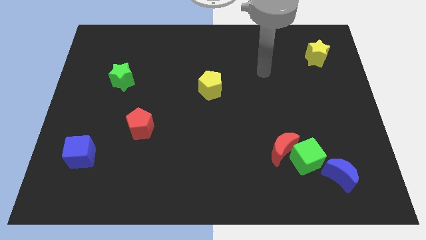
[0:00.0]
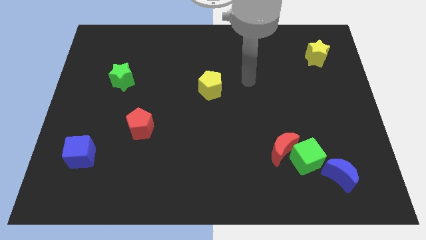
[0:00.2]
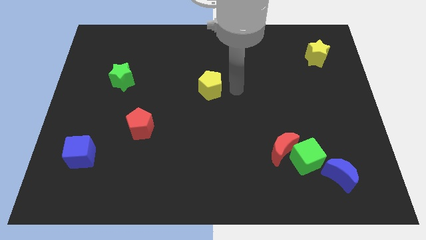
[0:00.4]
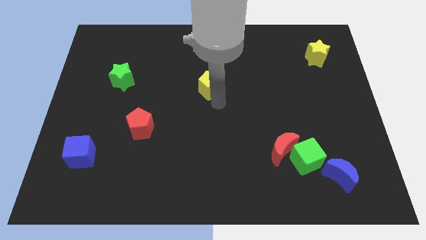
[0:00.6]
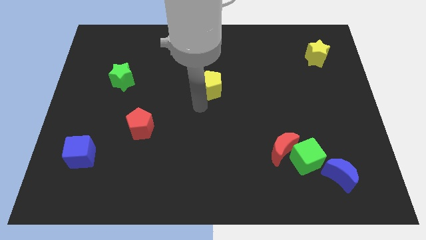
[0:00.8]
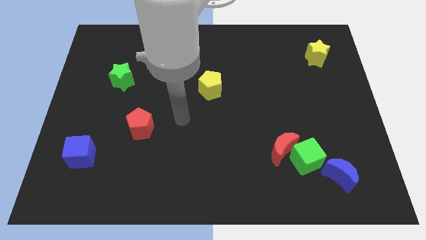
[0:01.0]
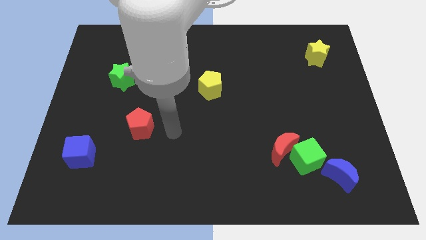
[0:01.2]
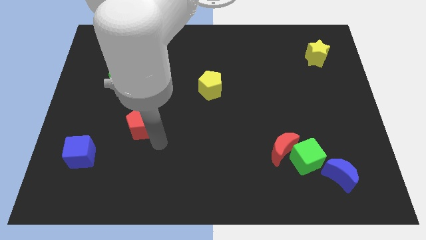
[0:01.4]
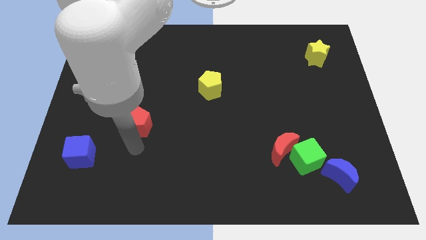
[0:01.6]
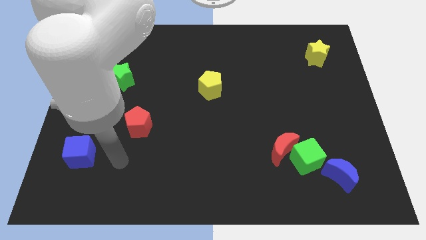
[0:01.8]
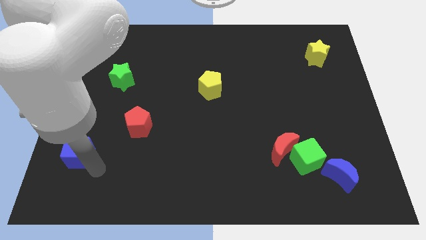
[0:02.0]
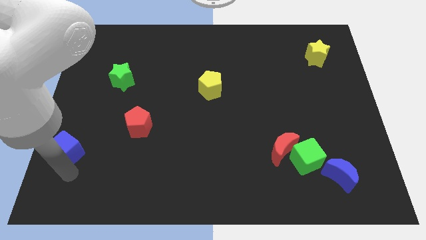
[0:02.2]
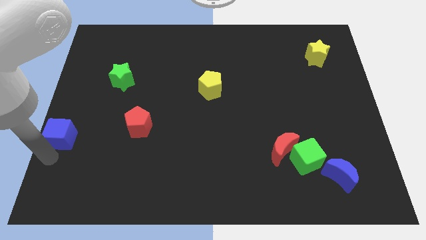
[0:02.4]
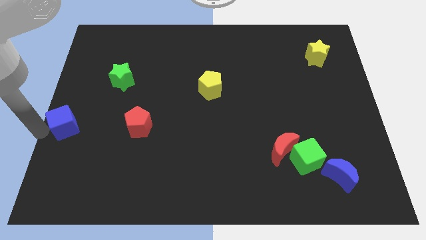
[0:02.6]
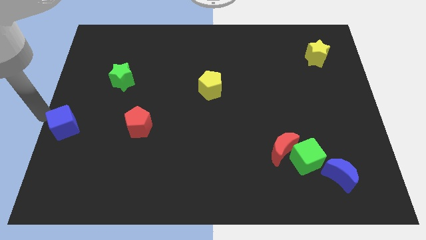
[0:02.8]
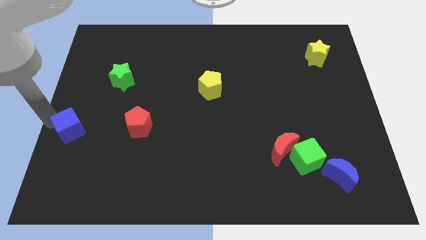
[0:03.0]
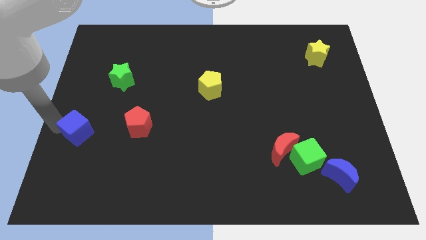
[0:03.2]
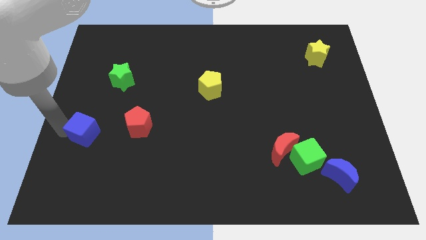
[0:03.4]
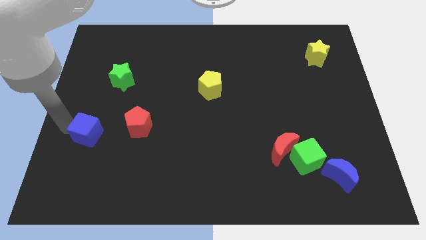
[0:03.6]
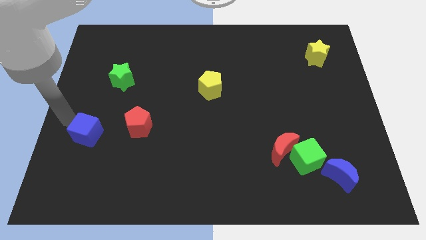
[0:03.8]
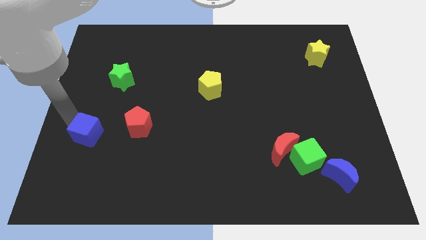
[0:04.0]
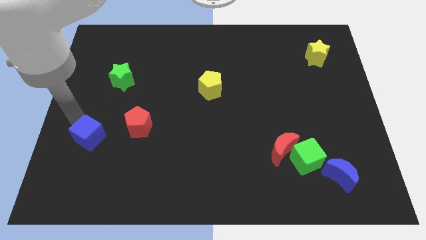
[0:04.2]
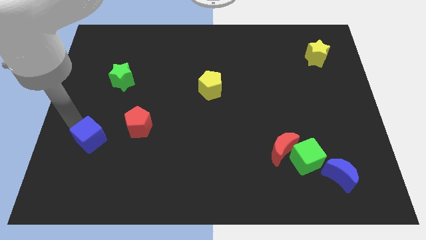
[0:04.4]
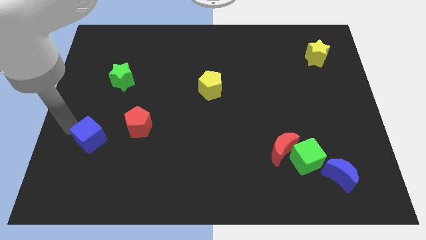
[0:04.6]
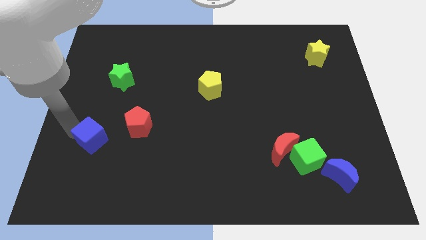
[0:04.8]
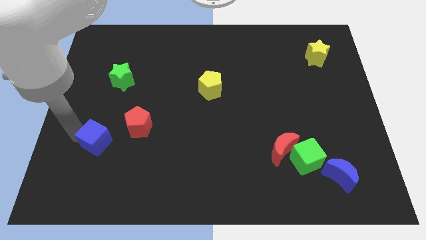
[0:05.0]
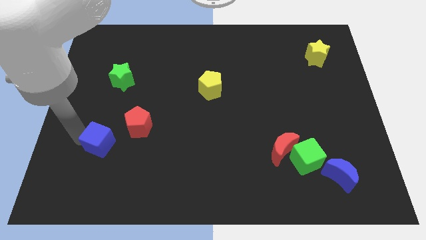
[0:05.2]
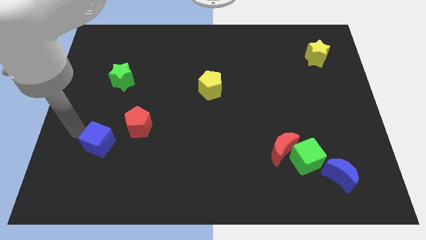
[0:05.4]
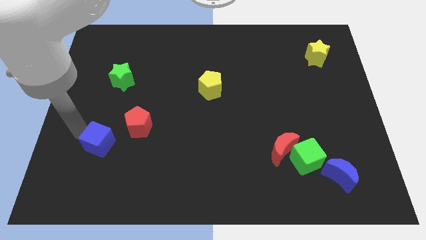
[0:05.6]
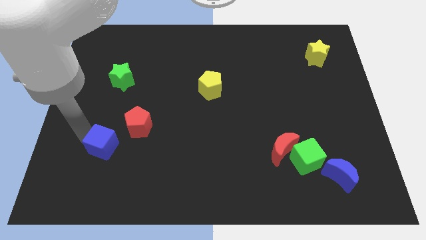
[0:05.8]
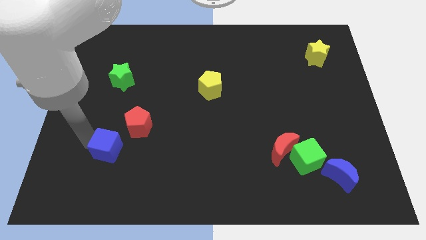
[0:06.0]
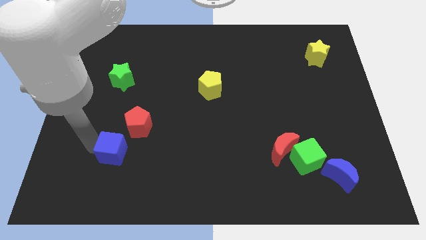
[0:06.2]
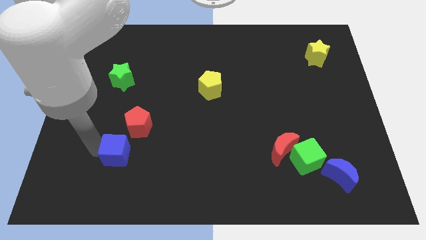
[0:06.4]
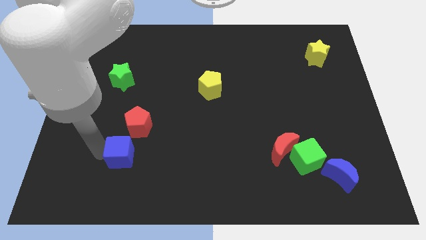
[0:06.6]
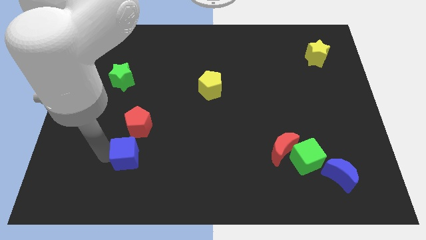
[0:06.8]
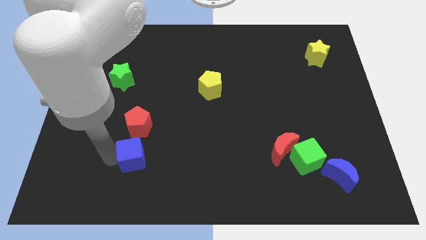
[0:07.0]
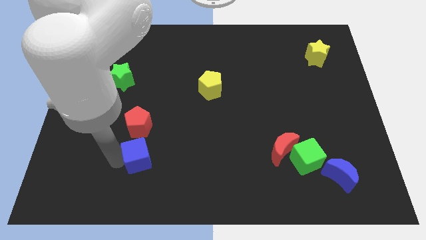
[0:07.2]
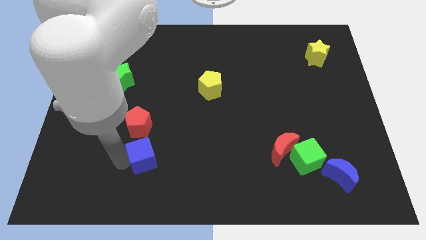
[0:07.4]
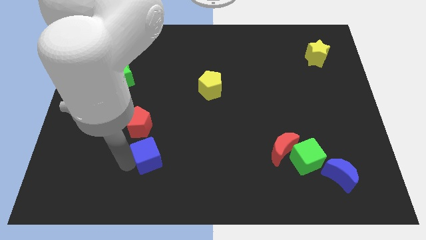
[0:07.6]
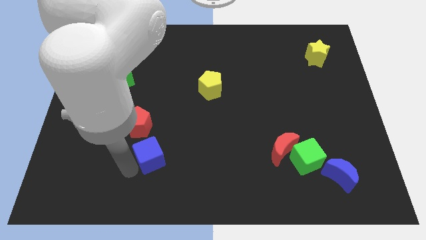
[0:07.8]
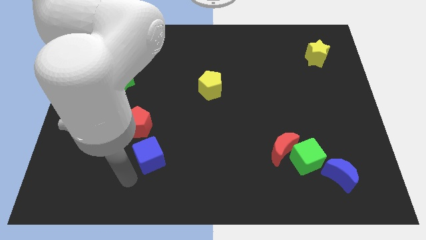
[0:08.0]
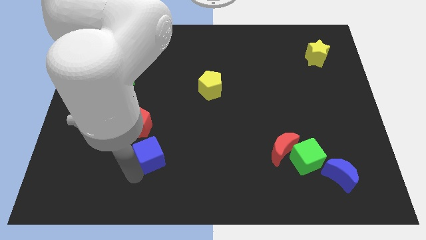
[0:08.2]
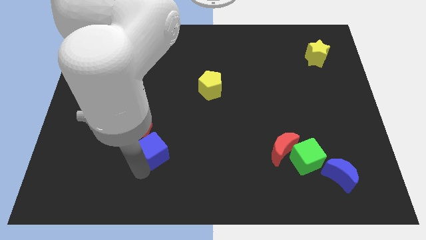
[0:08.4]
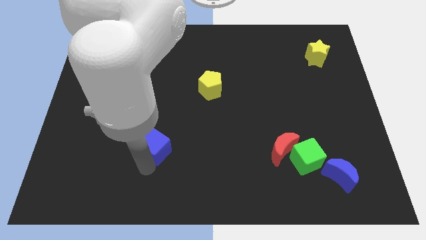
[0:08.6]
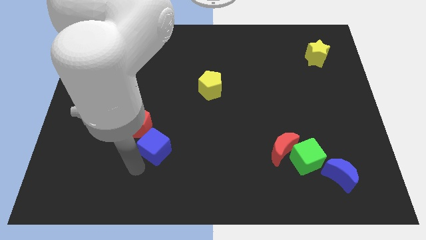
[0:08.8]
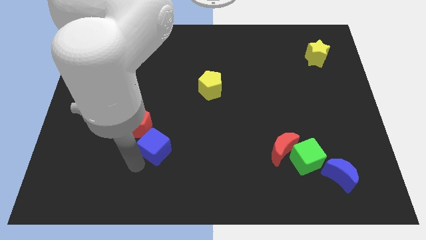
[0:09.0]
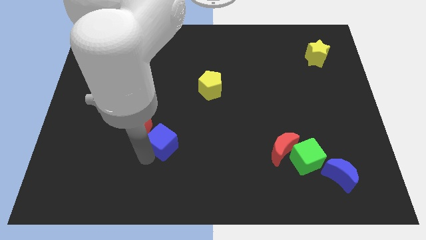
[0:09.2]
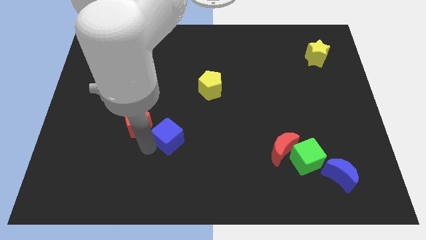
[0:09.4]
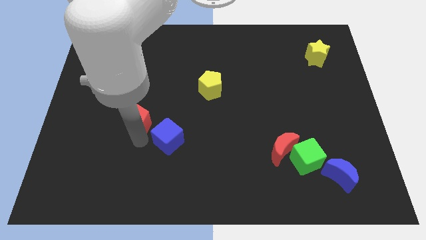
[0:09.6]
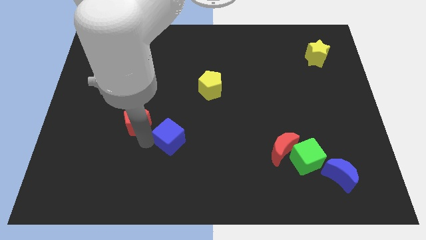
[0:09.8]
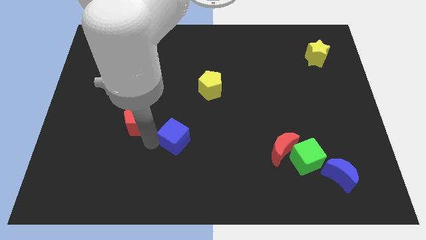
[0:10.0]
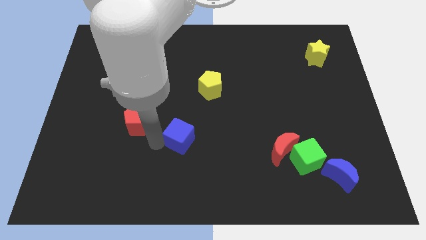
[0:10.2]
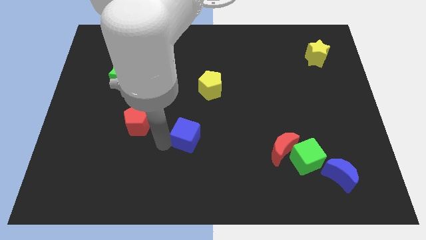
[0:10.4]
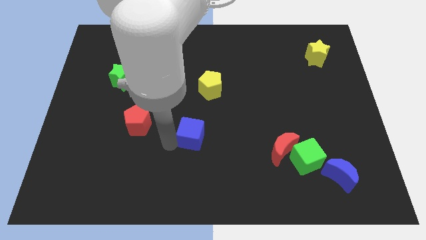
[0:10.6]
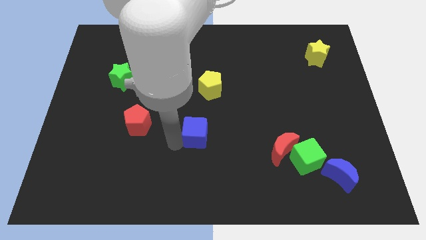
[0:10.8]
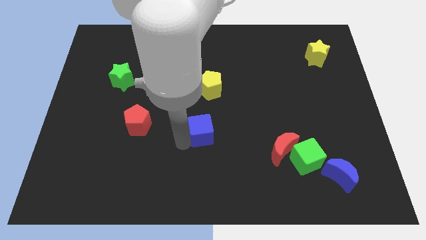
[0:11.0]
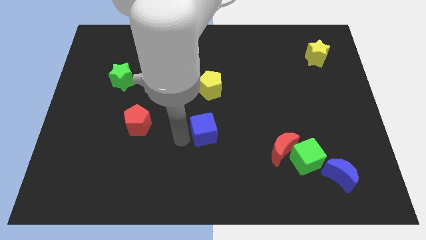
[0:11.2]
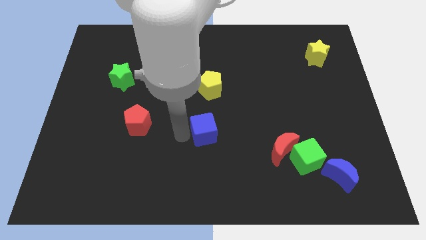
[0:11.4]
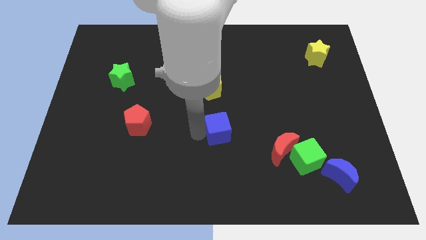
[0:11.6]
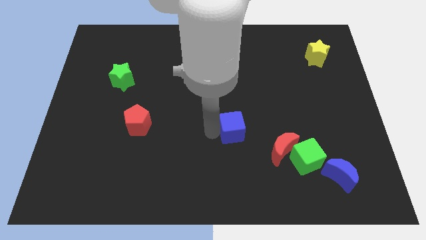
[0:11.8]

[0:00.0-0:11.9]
slide the blue cube to the top left side of the red moon

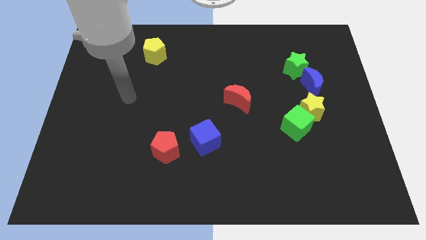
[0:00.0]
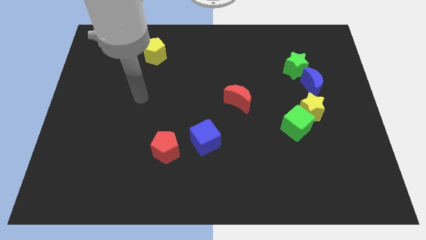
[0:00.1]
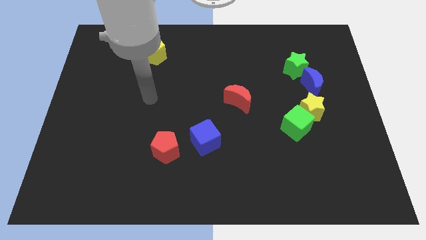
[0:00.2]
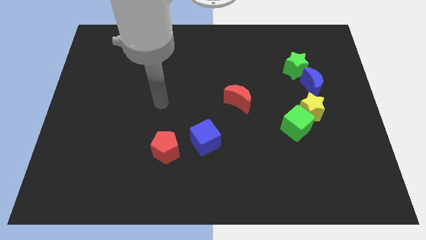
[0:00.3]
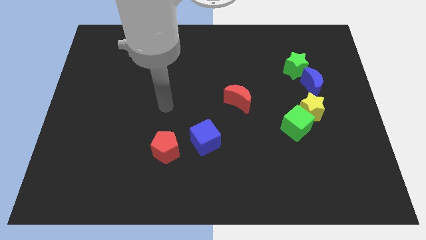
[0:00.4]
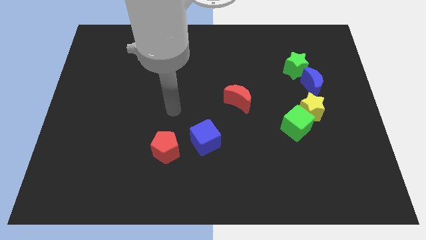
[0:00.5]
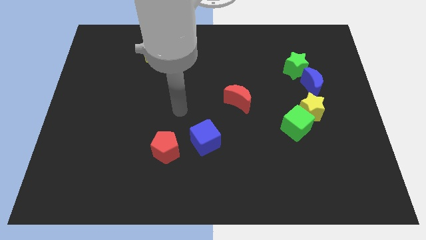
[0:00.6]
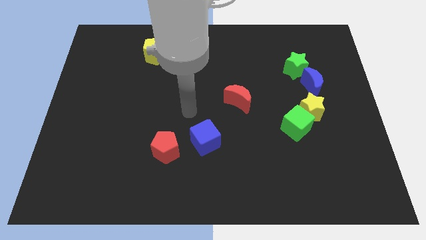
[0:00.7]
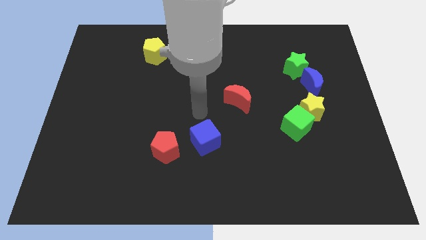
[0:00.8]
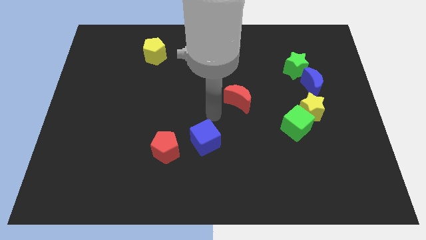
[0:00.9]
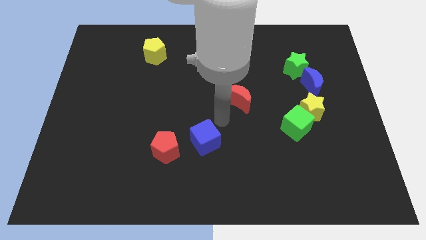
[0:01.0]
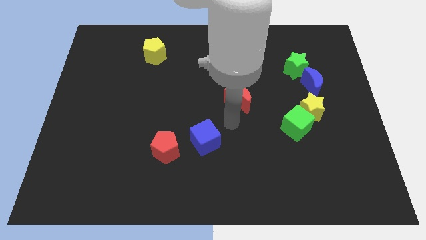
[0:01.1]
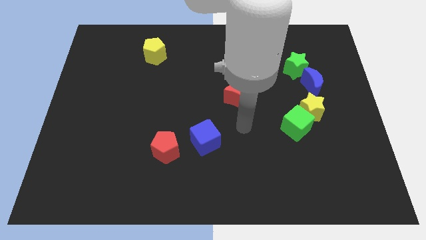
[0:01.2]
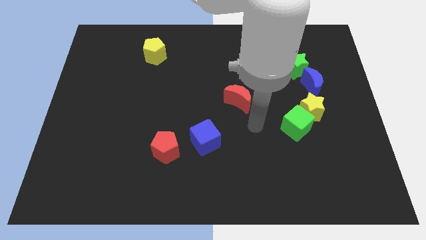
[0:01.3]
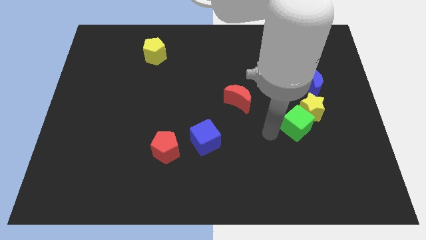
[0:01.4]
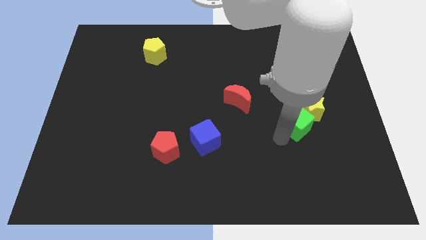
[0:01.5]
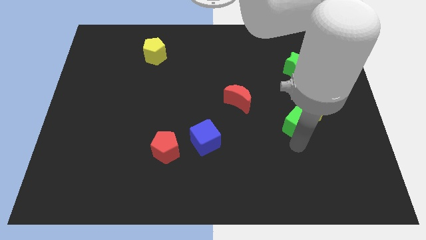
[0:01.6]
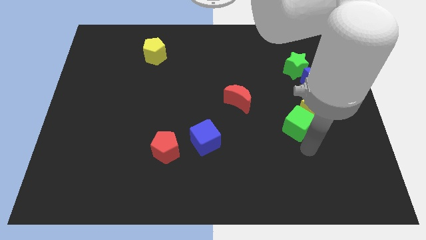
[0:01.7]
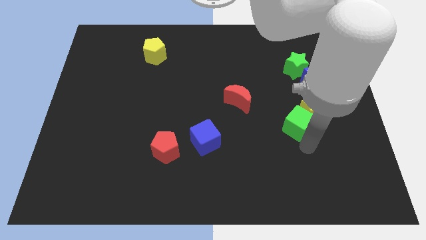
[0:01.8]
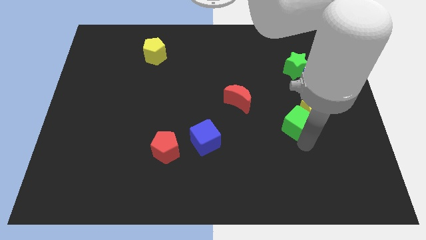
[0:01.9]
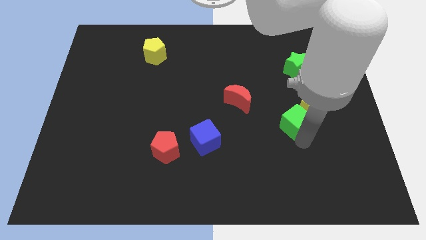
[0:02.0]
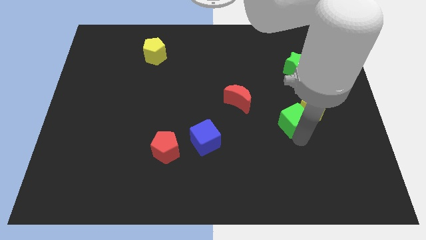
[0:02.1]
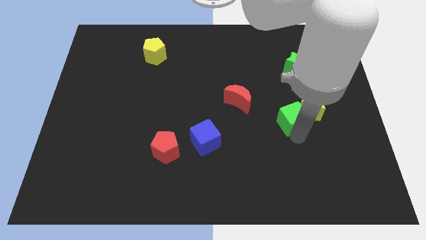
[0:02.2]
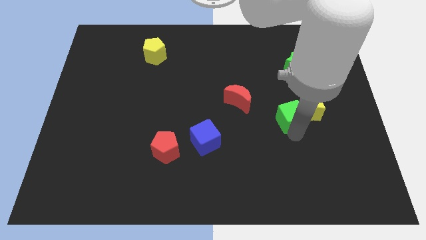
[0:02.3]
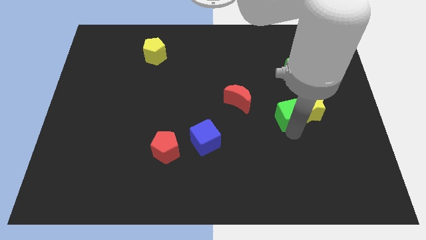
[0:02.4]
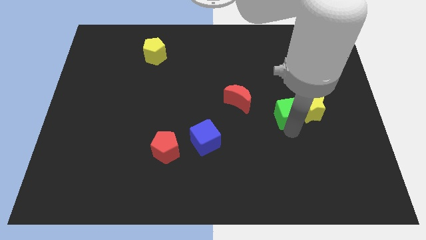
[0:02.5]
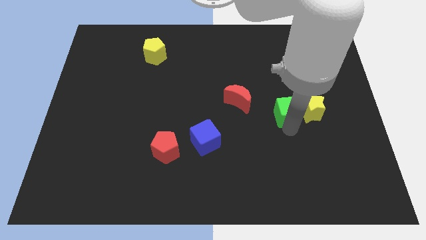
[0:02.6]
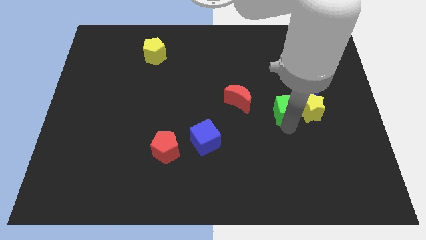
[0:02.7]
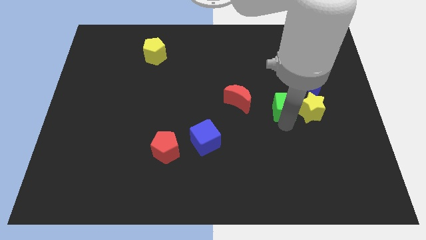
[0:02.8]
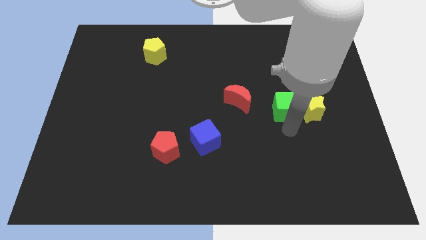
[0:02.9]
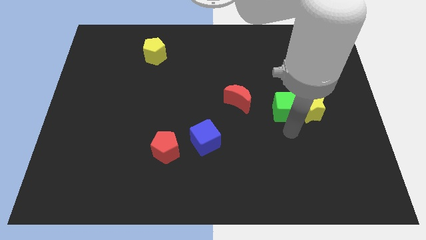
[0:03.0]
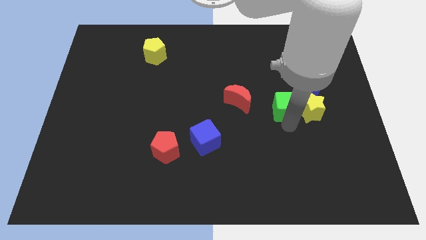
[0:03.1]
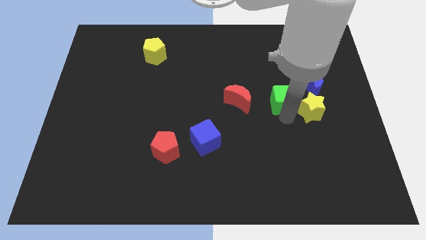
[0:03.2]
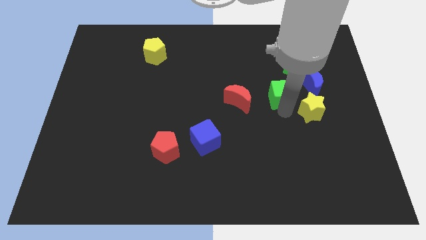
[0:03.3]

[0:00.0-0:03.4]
push the green cube to the bottom left side of the green star
